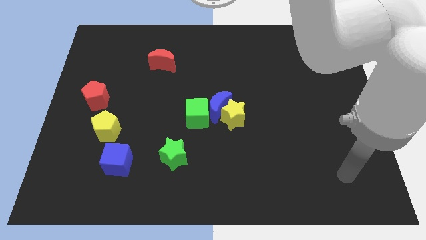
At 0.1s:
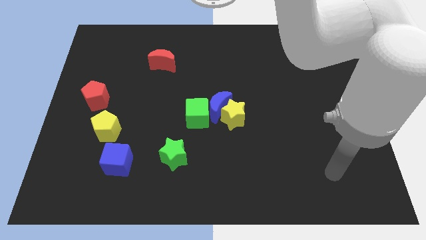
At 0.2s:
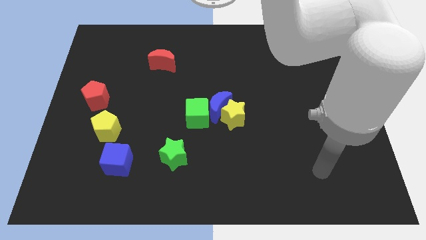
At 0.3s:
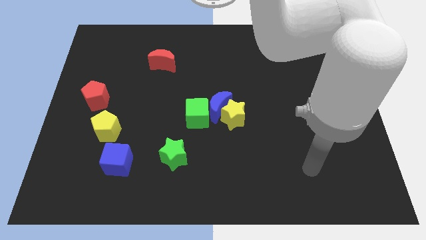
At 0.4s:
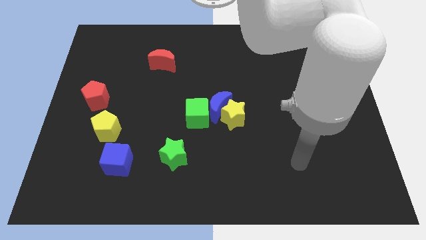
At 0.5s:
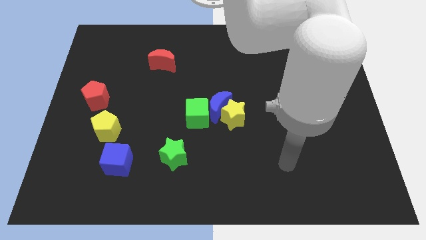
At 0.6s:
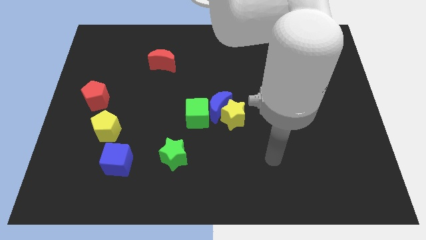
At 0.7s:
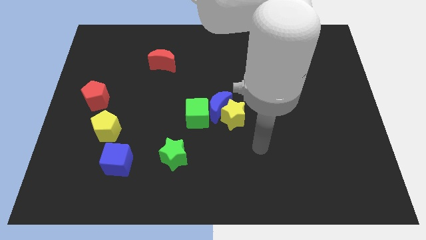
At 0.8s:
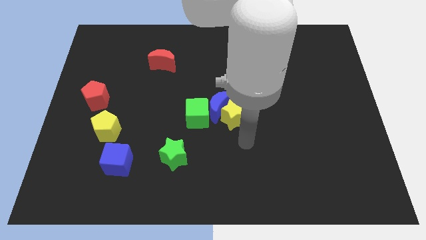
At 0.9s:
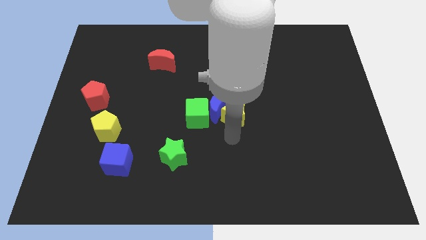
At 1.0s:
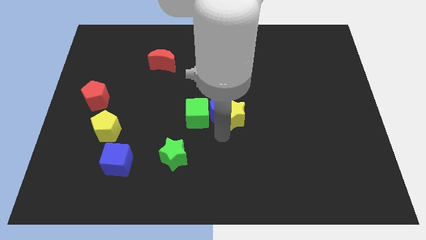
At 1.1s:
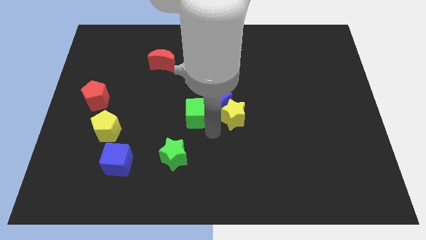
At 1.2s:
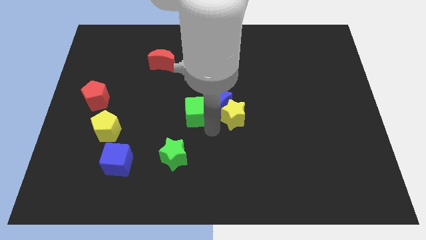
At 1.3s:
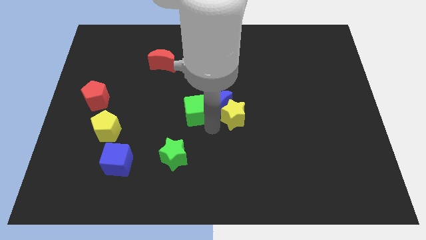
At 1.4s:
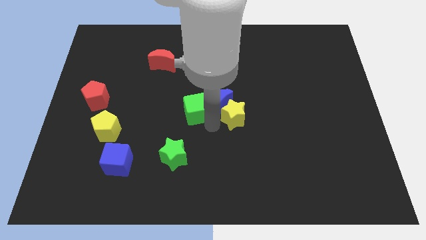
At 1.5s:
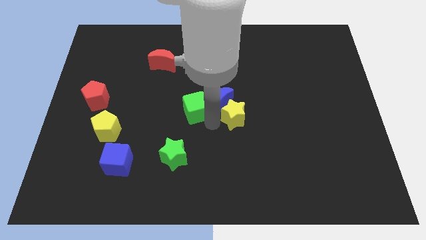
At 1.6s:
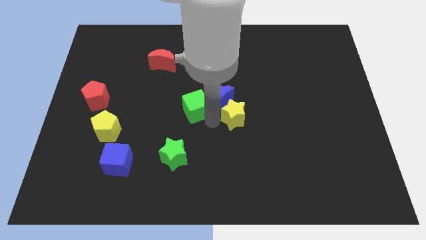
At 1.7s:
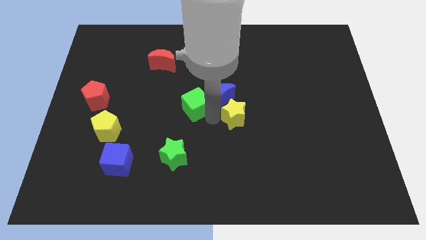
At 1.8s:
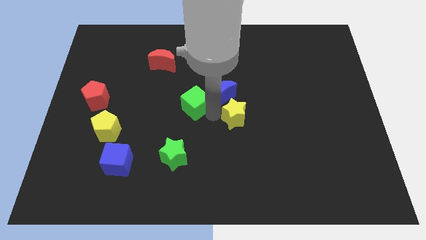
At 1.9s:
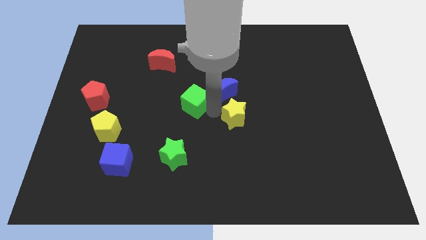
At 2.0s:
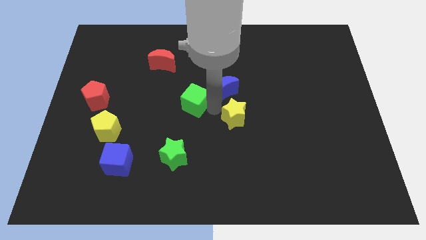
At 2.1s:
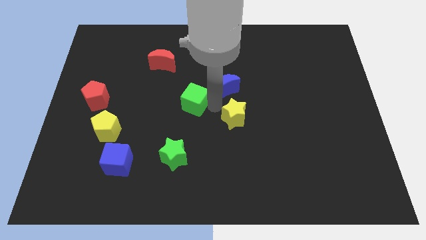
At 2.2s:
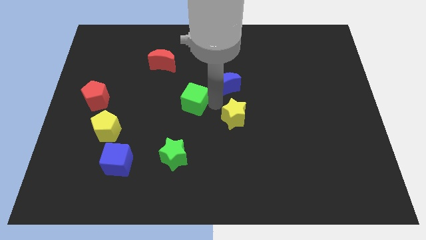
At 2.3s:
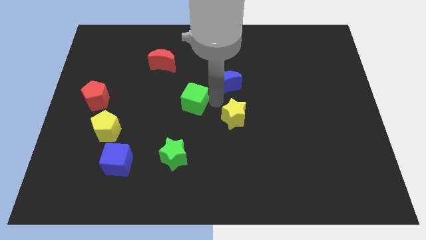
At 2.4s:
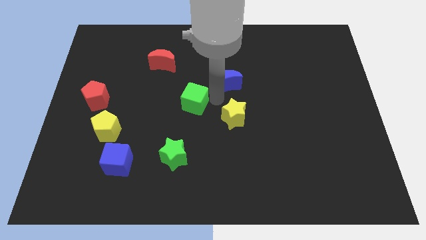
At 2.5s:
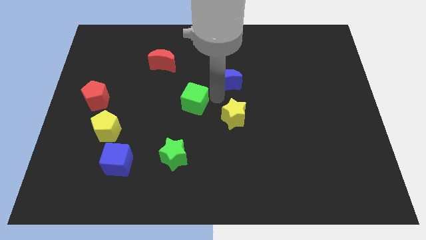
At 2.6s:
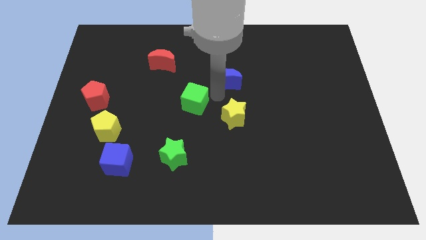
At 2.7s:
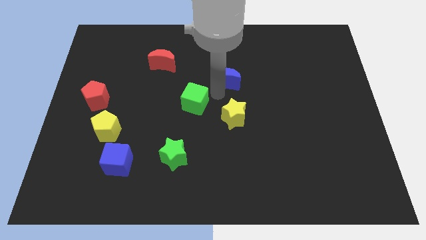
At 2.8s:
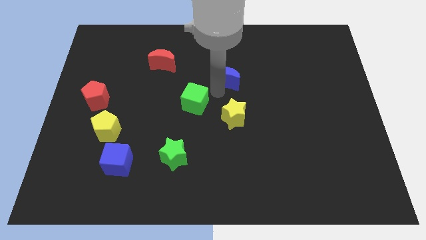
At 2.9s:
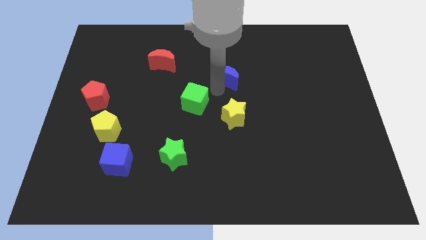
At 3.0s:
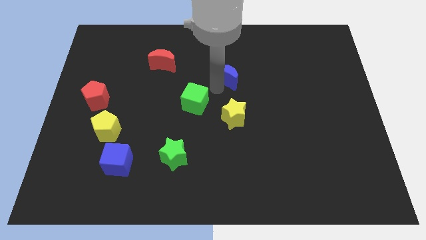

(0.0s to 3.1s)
pull the blue moon apart from the yellow star and green cube

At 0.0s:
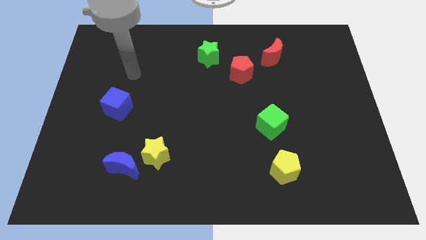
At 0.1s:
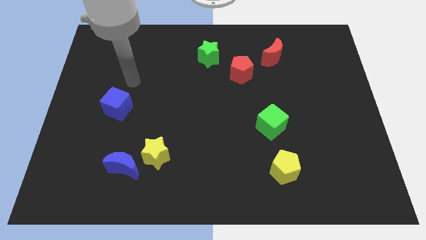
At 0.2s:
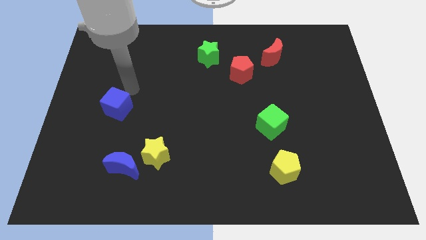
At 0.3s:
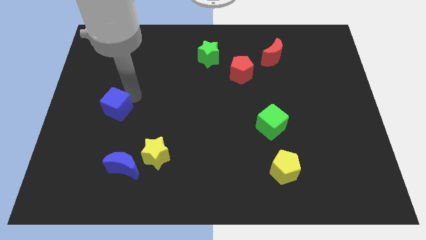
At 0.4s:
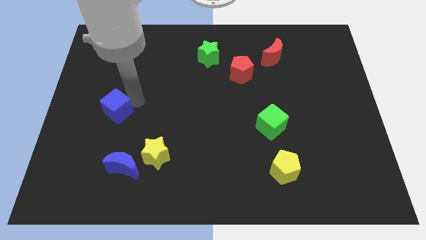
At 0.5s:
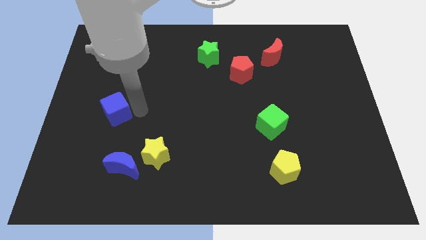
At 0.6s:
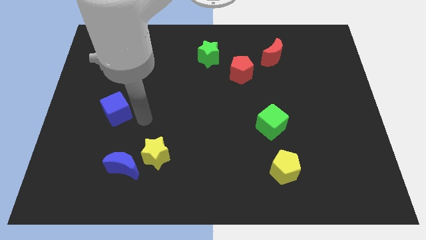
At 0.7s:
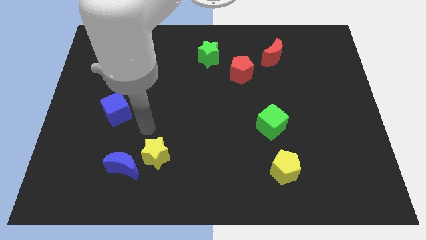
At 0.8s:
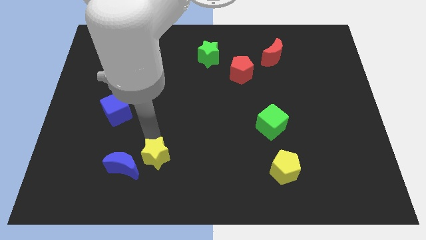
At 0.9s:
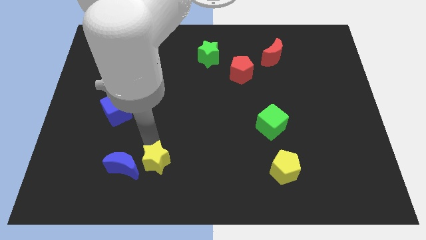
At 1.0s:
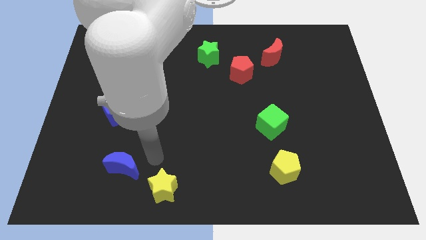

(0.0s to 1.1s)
move the blue moon away from the yellow star

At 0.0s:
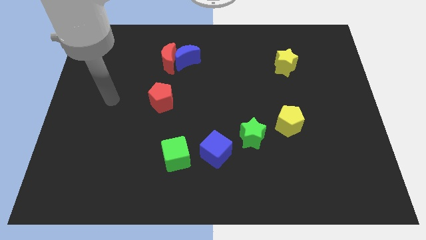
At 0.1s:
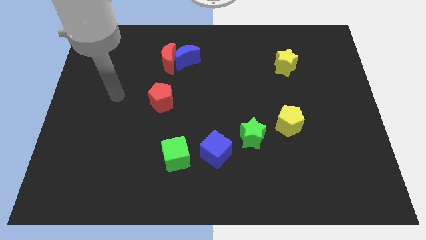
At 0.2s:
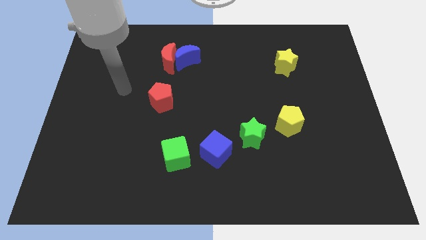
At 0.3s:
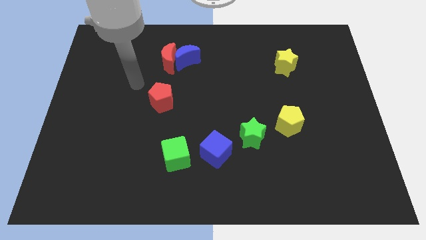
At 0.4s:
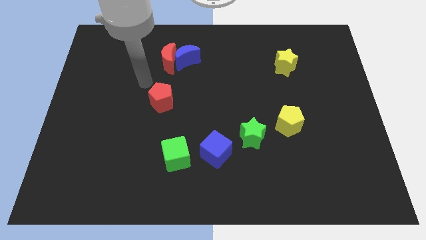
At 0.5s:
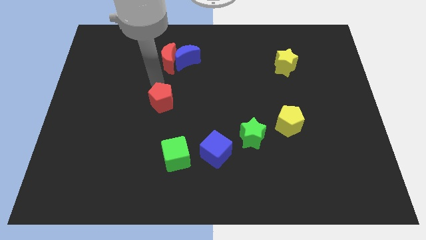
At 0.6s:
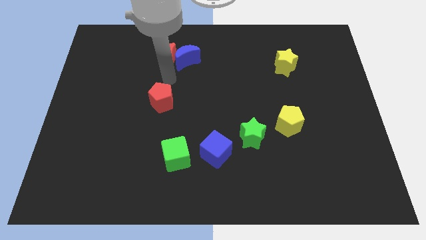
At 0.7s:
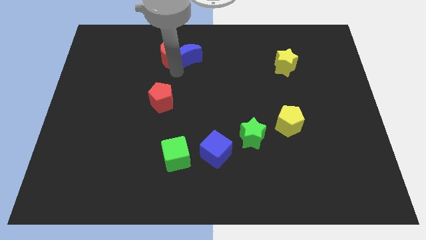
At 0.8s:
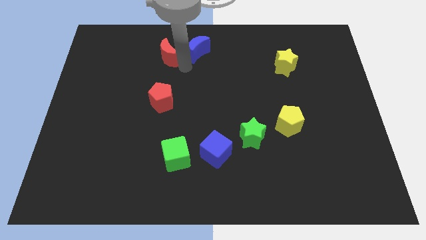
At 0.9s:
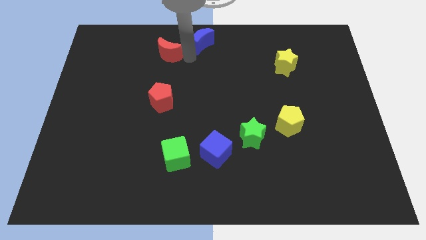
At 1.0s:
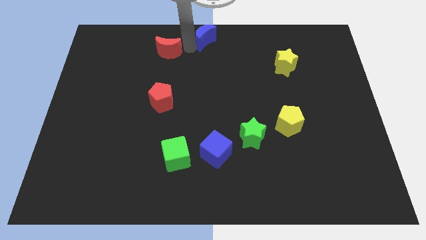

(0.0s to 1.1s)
pull the red moon apart from the blue moon

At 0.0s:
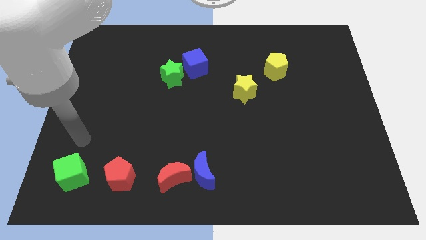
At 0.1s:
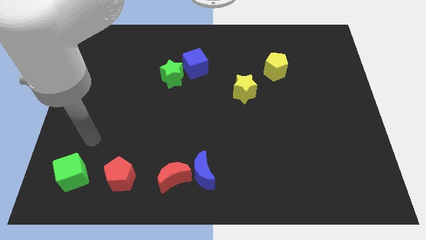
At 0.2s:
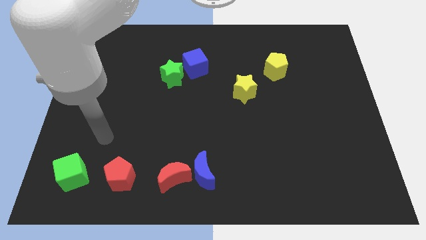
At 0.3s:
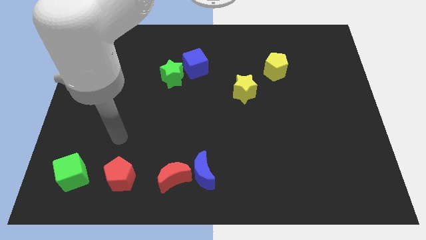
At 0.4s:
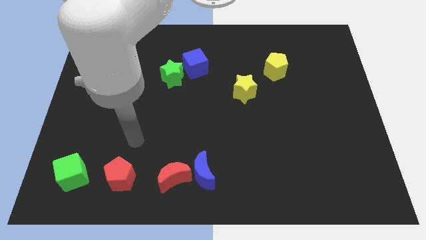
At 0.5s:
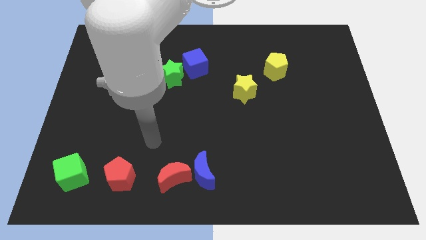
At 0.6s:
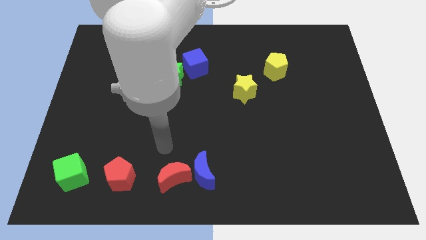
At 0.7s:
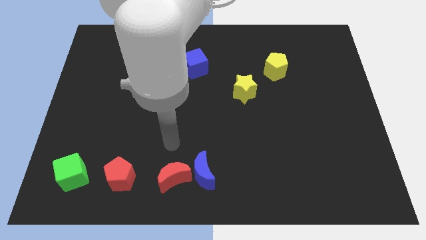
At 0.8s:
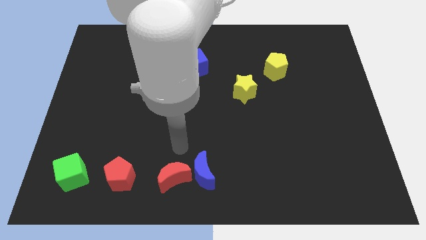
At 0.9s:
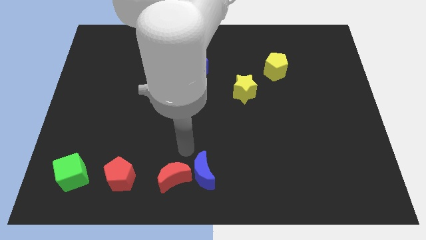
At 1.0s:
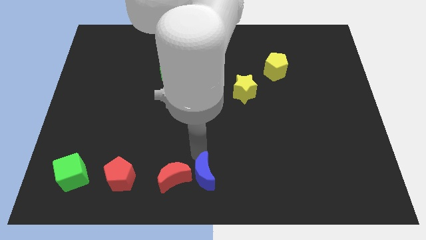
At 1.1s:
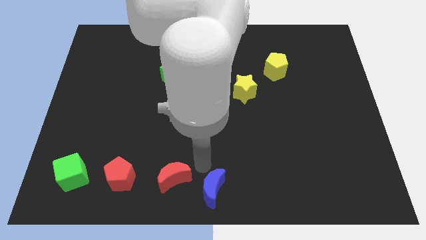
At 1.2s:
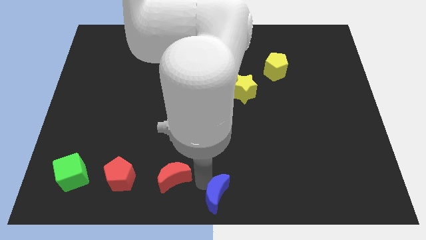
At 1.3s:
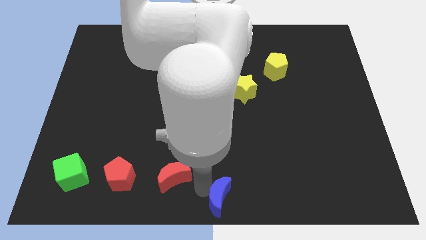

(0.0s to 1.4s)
separate the red moon from the blue moon

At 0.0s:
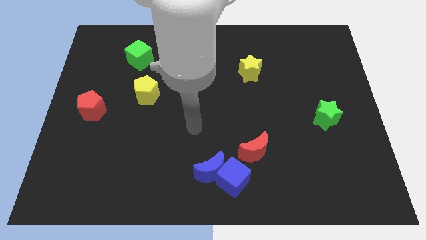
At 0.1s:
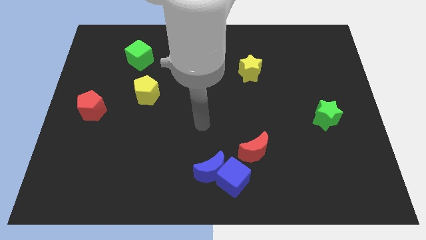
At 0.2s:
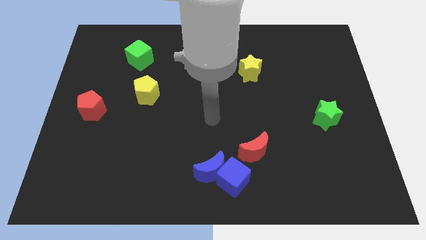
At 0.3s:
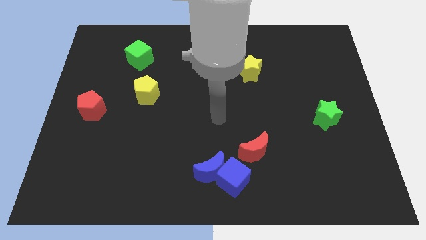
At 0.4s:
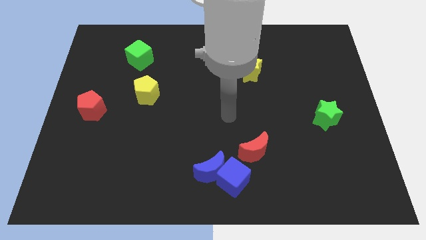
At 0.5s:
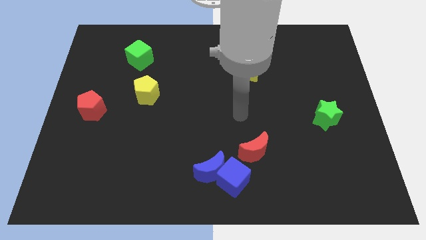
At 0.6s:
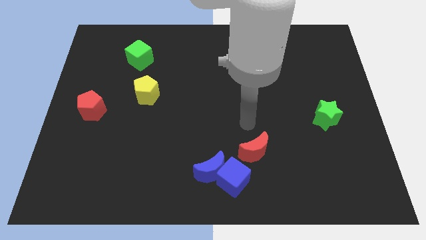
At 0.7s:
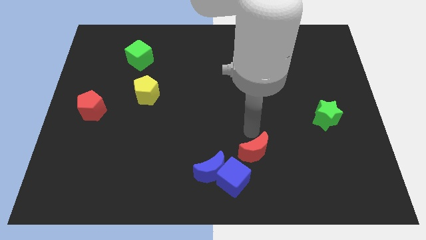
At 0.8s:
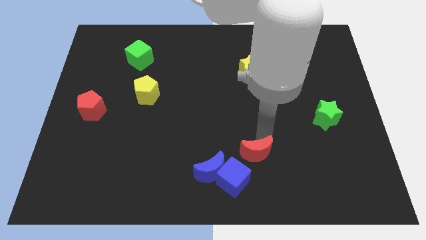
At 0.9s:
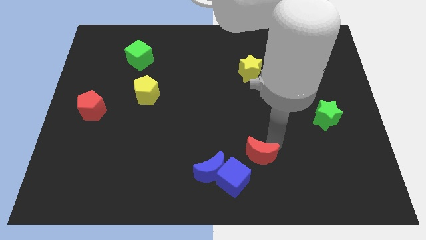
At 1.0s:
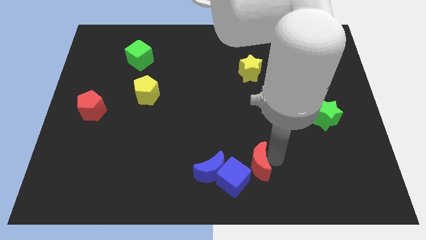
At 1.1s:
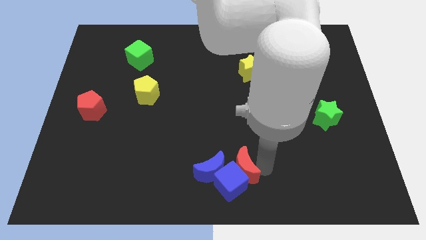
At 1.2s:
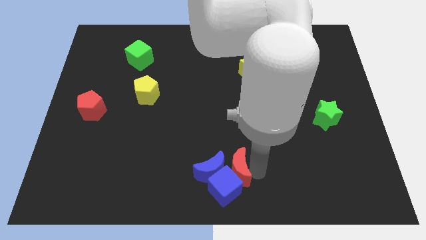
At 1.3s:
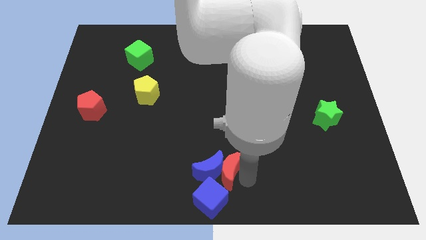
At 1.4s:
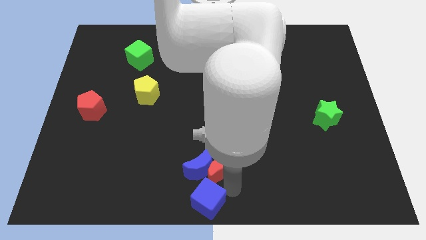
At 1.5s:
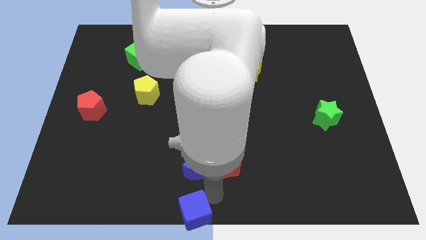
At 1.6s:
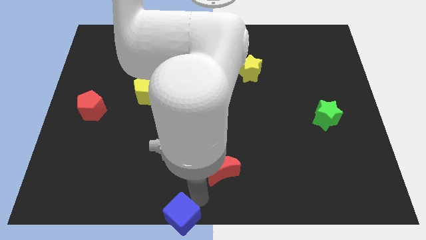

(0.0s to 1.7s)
separate the blue moon from the blue cube

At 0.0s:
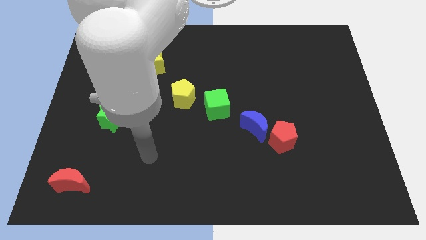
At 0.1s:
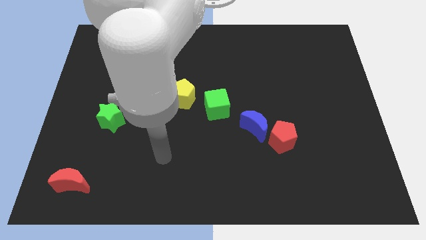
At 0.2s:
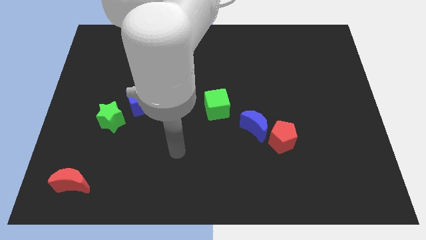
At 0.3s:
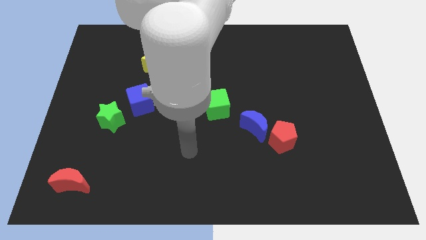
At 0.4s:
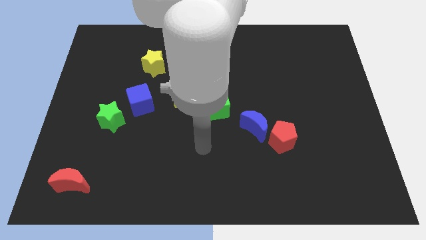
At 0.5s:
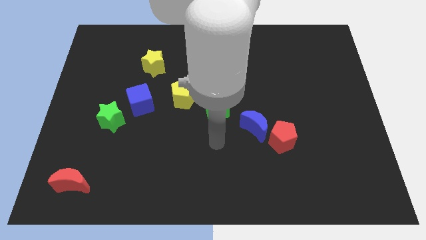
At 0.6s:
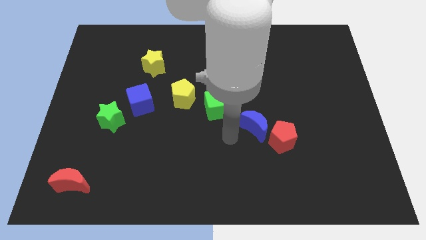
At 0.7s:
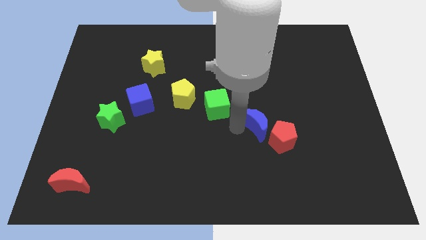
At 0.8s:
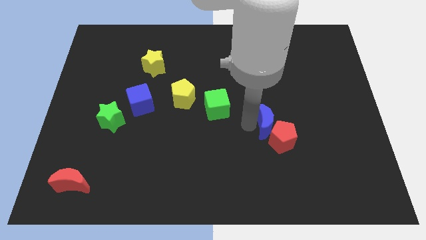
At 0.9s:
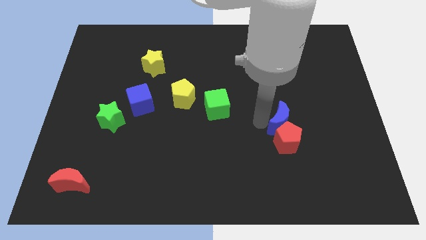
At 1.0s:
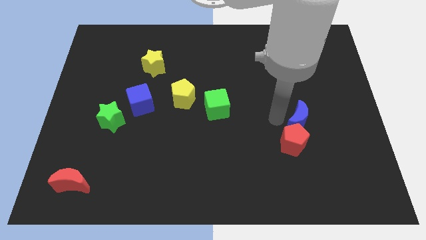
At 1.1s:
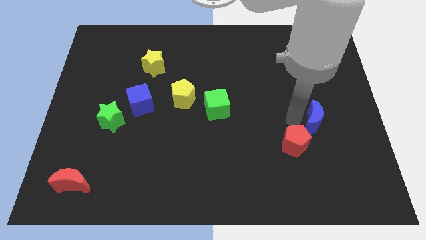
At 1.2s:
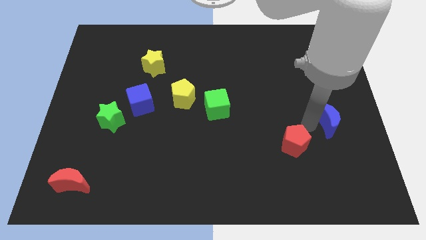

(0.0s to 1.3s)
move the red pentagon away from the blue moon
